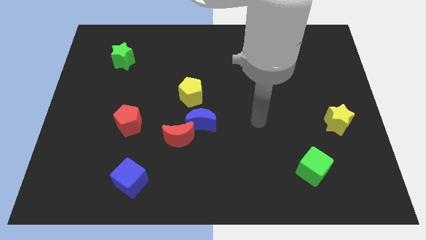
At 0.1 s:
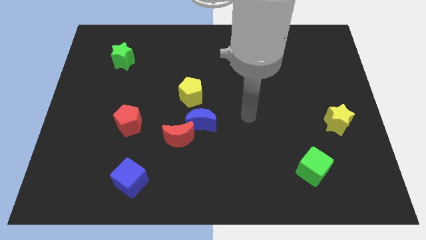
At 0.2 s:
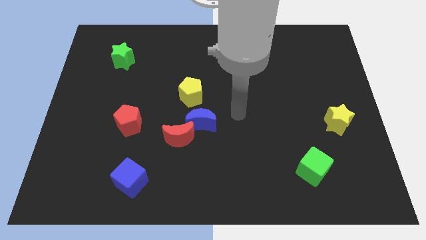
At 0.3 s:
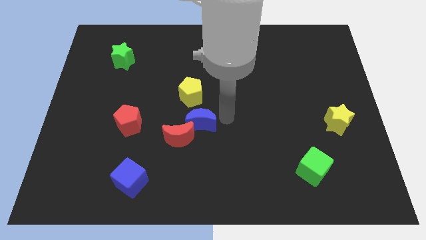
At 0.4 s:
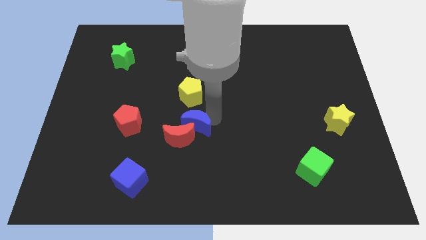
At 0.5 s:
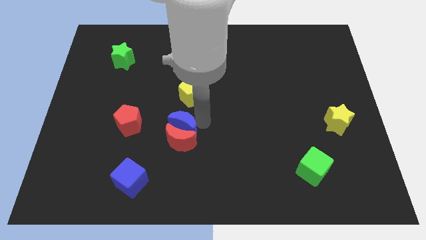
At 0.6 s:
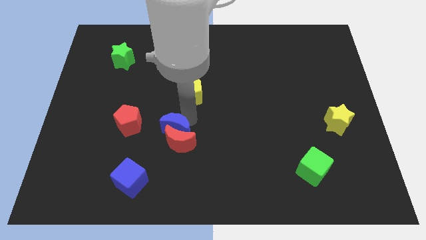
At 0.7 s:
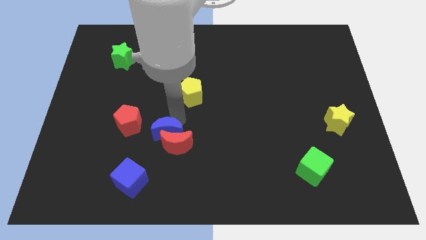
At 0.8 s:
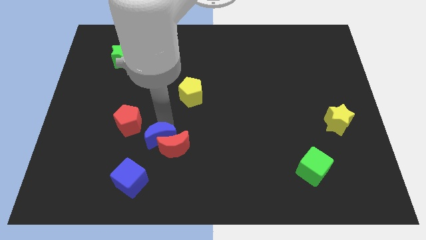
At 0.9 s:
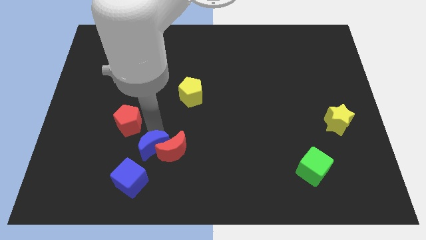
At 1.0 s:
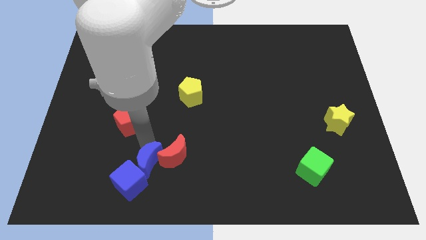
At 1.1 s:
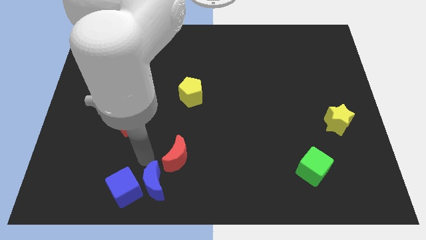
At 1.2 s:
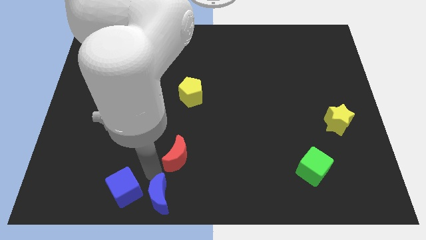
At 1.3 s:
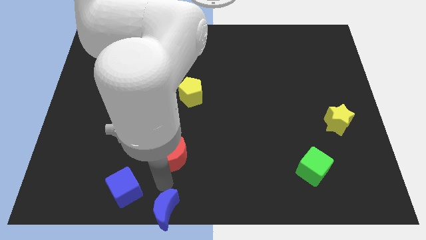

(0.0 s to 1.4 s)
move the red moon away from the blue moon

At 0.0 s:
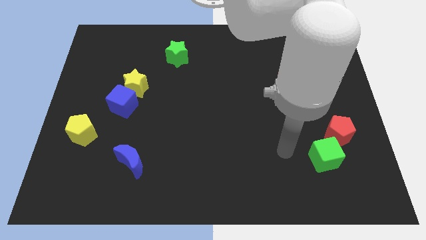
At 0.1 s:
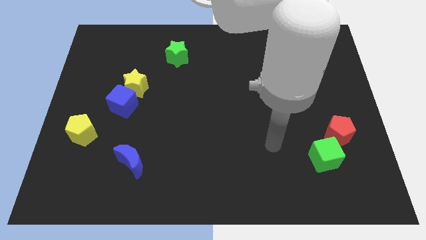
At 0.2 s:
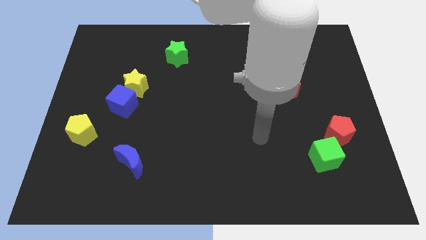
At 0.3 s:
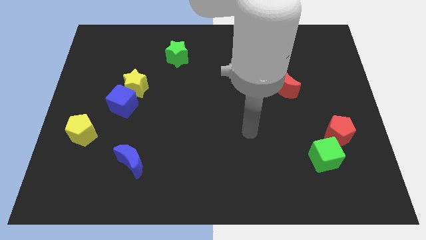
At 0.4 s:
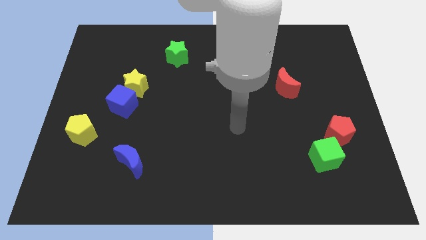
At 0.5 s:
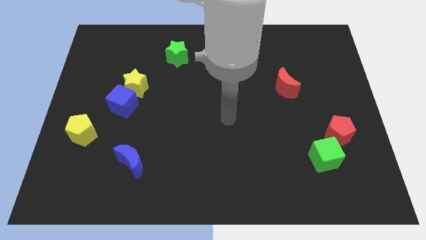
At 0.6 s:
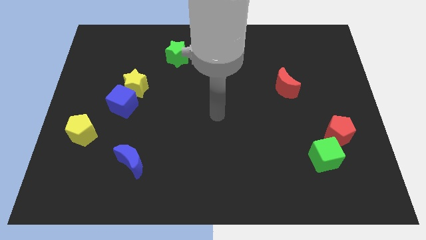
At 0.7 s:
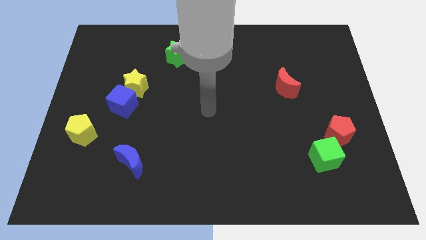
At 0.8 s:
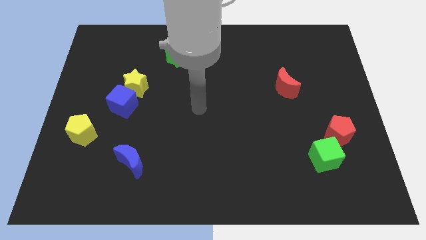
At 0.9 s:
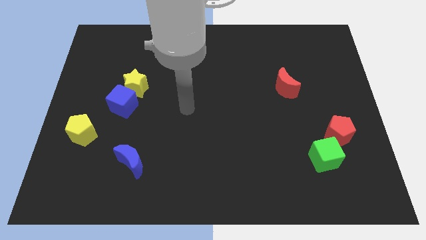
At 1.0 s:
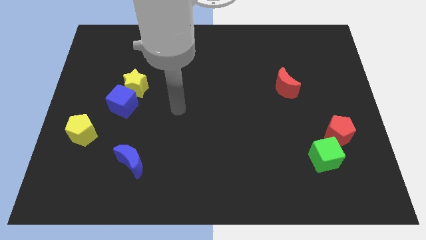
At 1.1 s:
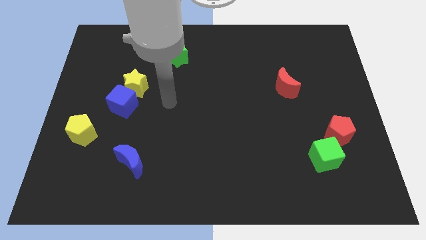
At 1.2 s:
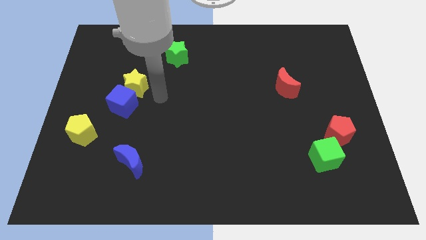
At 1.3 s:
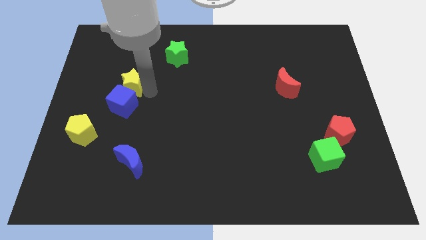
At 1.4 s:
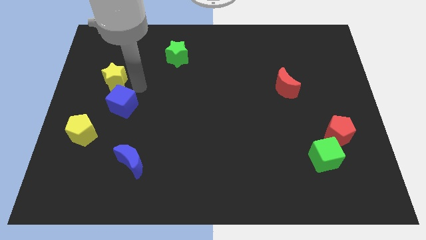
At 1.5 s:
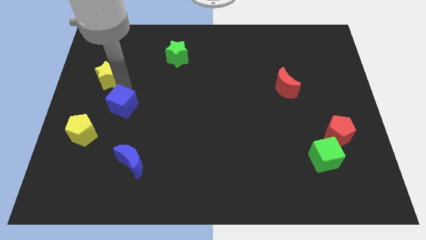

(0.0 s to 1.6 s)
pull the blue cube apart from the yellow star

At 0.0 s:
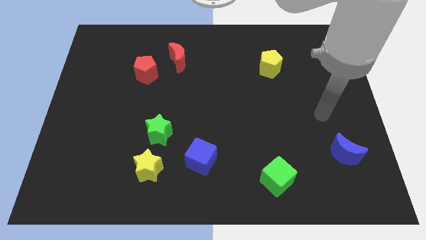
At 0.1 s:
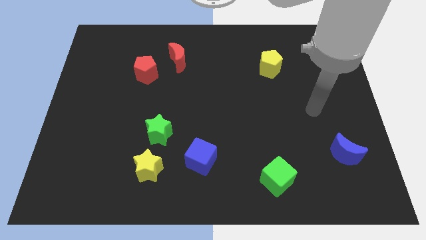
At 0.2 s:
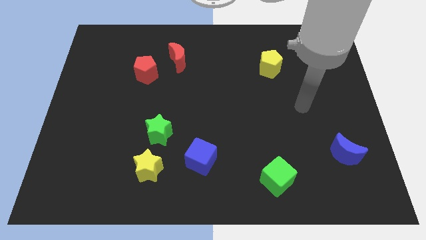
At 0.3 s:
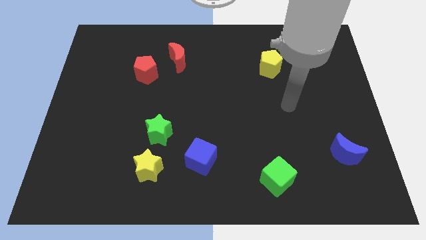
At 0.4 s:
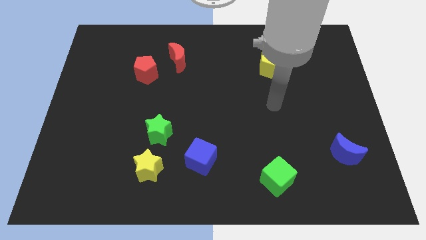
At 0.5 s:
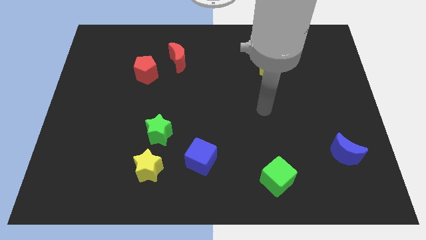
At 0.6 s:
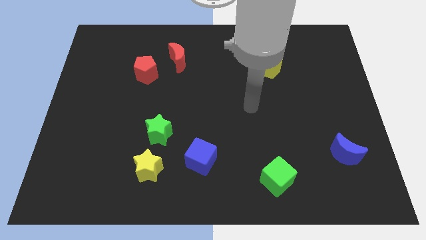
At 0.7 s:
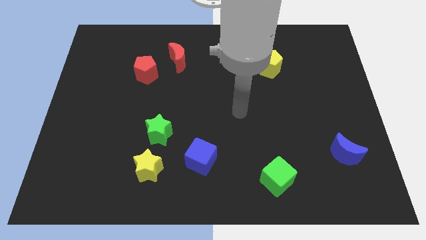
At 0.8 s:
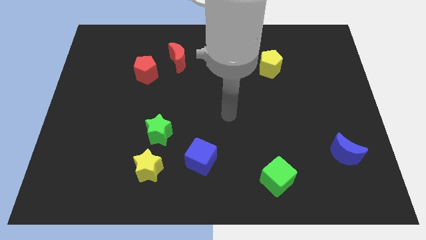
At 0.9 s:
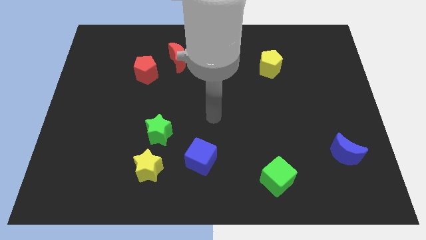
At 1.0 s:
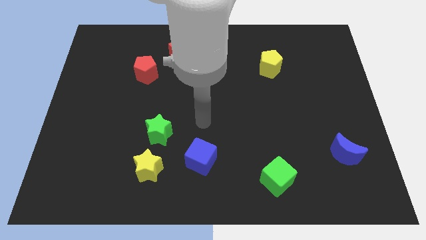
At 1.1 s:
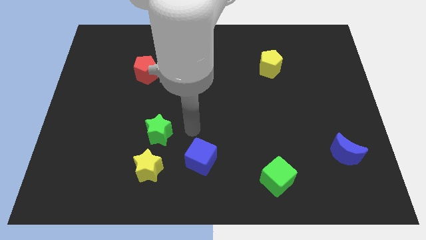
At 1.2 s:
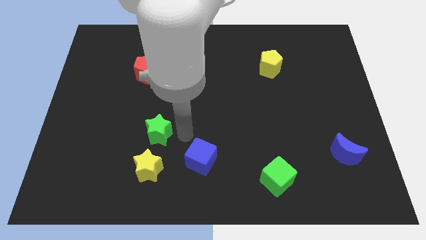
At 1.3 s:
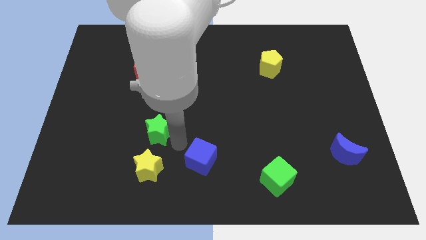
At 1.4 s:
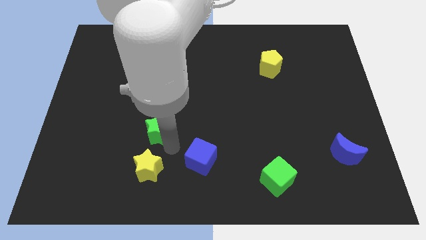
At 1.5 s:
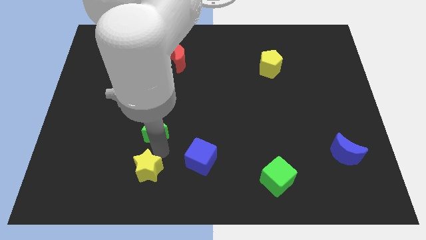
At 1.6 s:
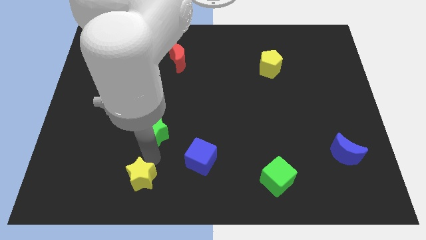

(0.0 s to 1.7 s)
separate the green star from the yellow star

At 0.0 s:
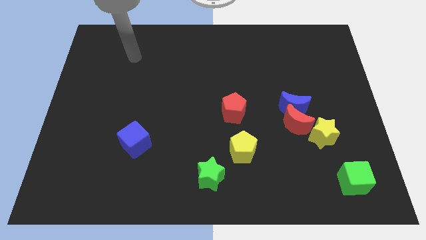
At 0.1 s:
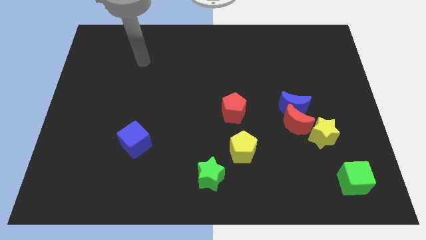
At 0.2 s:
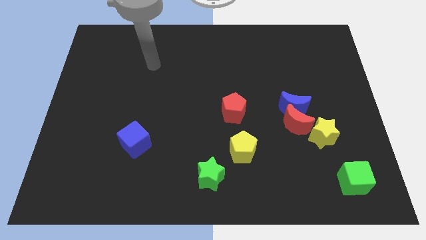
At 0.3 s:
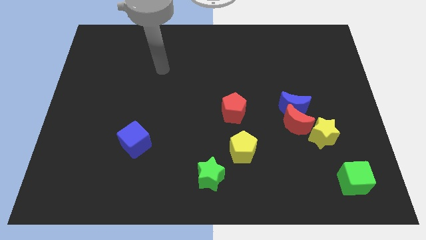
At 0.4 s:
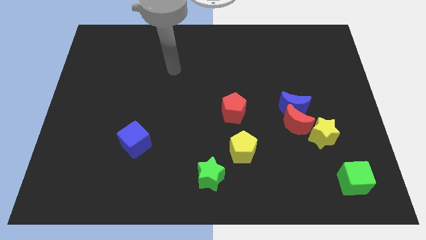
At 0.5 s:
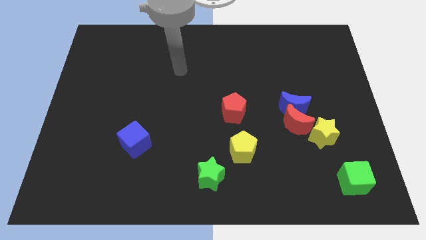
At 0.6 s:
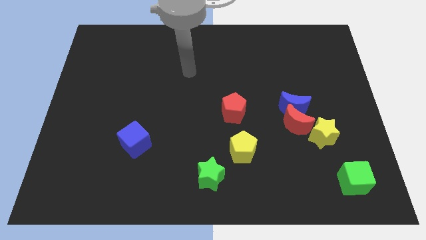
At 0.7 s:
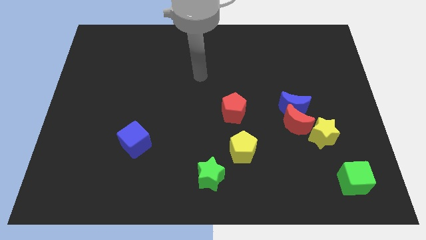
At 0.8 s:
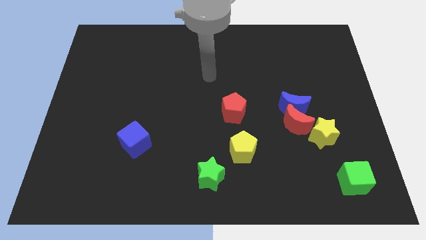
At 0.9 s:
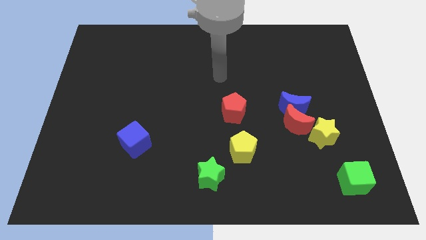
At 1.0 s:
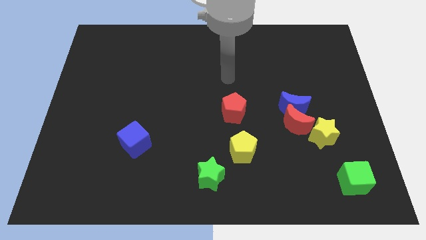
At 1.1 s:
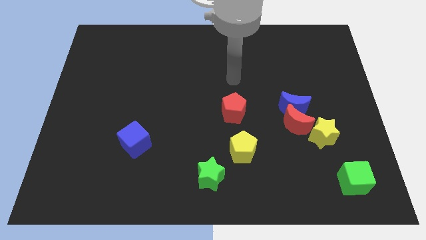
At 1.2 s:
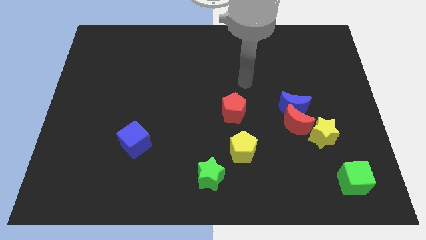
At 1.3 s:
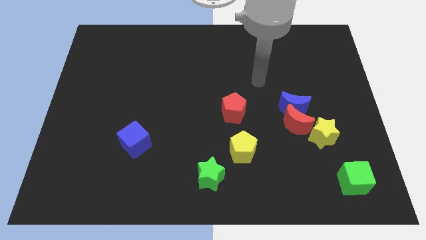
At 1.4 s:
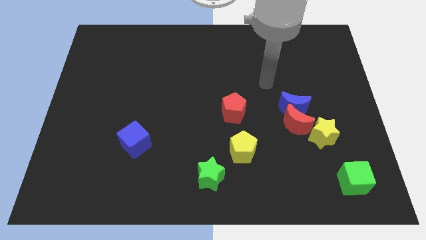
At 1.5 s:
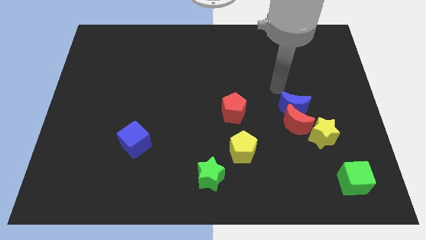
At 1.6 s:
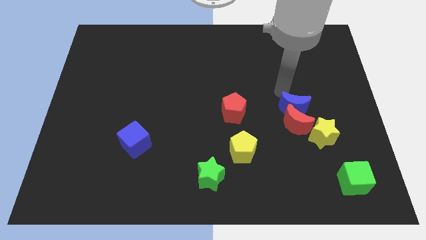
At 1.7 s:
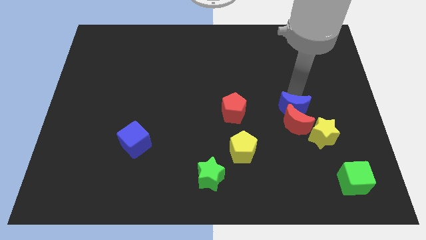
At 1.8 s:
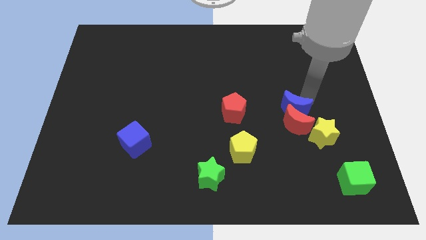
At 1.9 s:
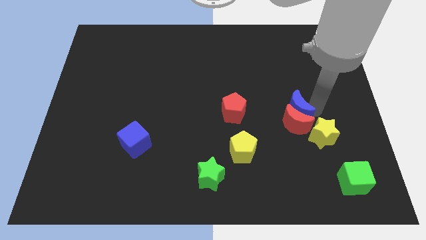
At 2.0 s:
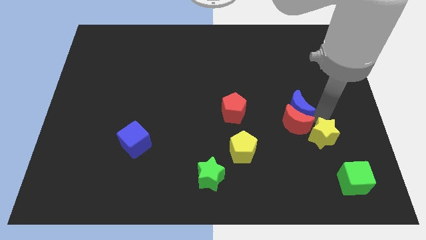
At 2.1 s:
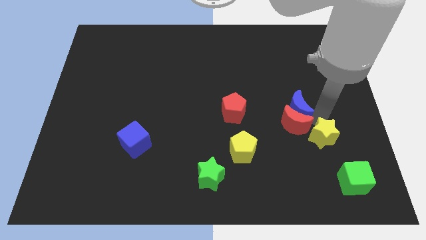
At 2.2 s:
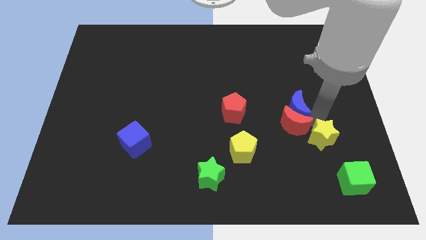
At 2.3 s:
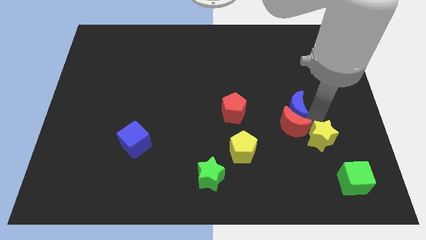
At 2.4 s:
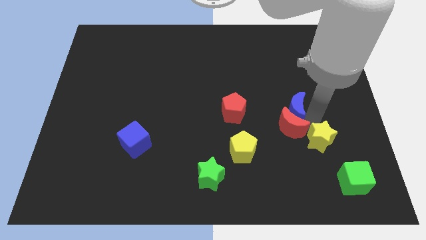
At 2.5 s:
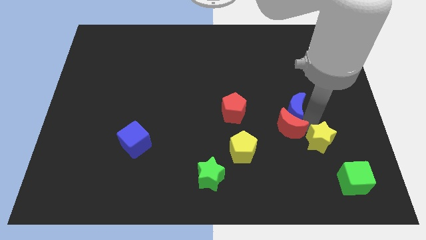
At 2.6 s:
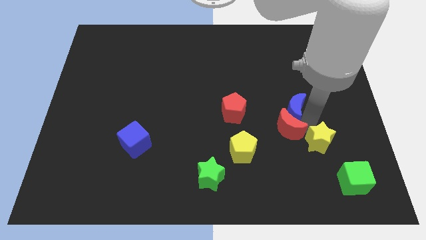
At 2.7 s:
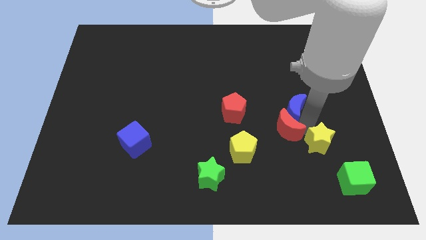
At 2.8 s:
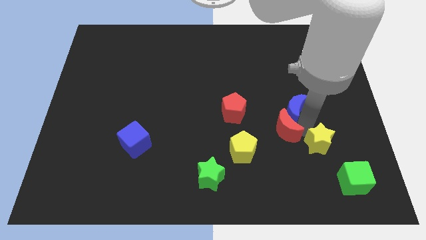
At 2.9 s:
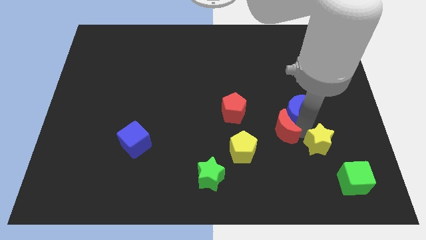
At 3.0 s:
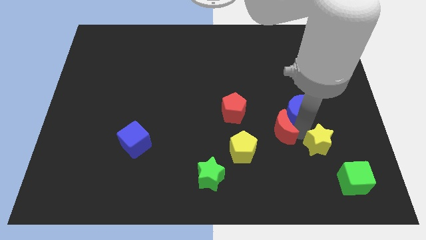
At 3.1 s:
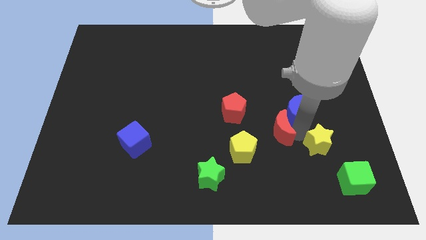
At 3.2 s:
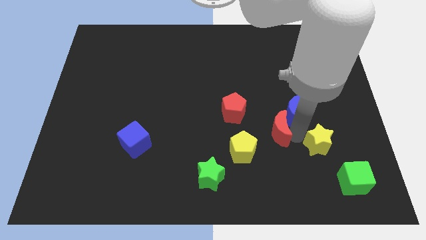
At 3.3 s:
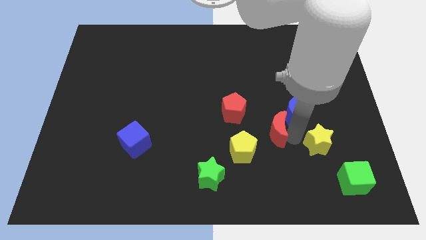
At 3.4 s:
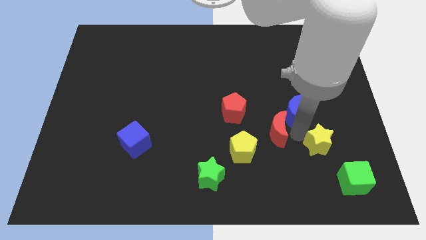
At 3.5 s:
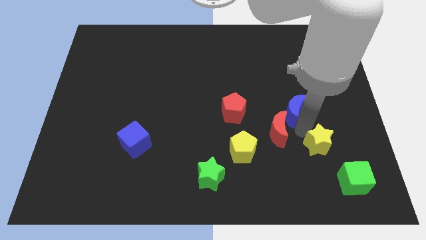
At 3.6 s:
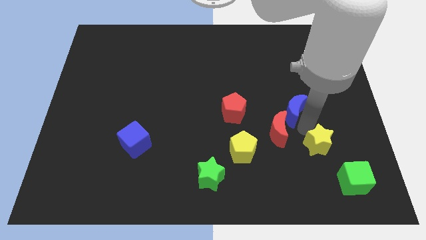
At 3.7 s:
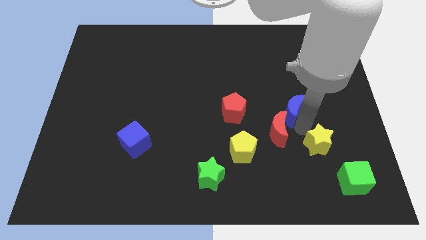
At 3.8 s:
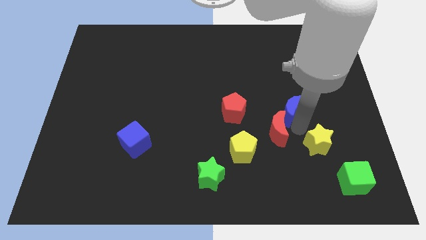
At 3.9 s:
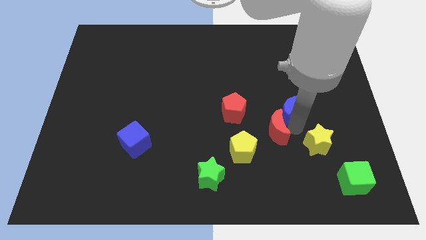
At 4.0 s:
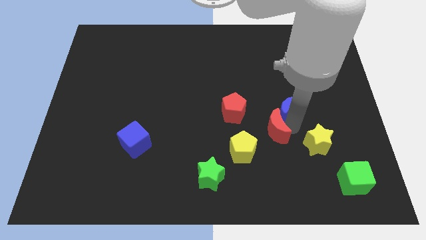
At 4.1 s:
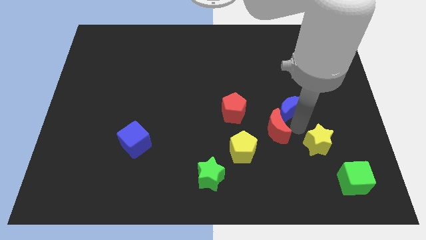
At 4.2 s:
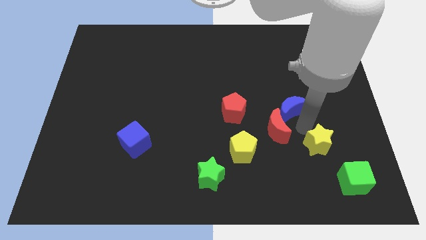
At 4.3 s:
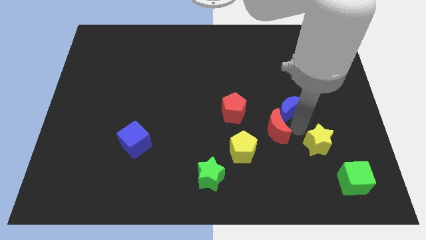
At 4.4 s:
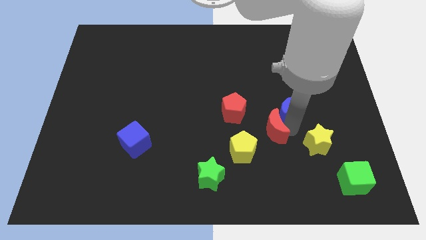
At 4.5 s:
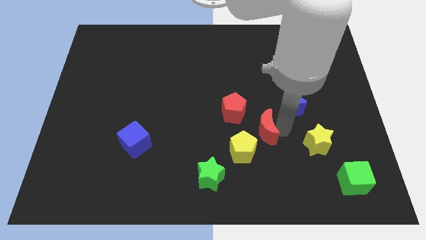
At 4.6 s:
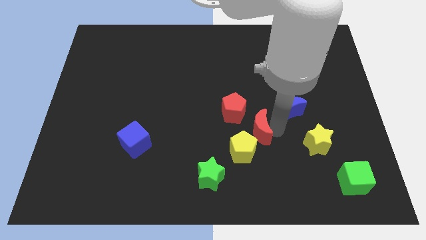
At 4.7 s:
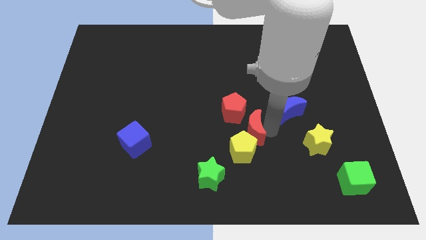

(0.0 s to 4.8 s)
move the red moon away from the blue moon and yellow star
